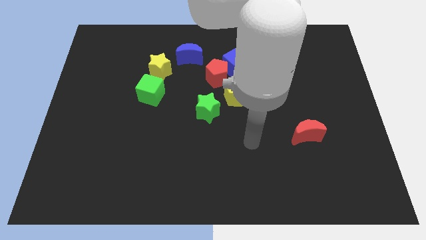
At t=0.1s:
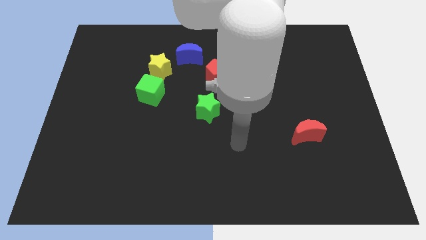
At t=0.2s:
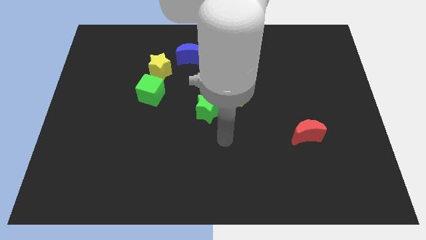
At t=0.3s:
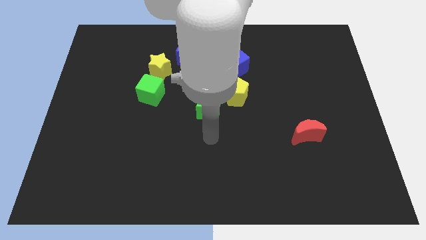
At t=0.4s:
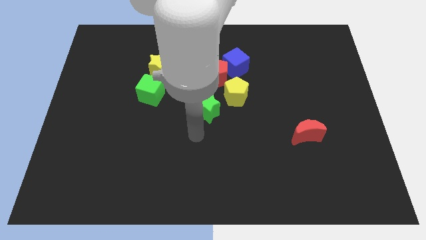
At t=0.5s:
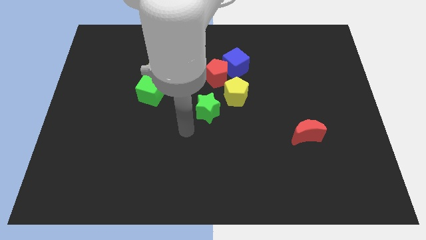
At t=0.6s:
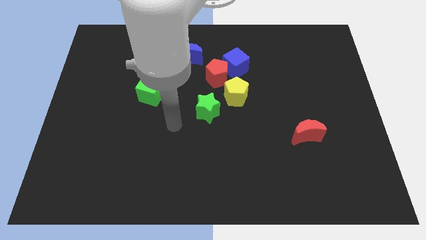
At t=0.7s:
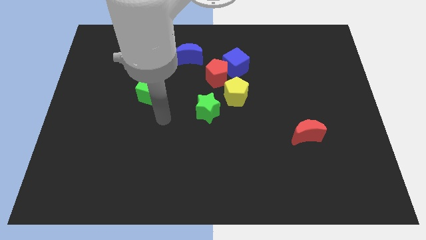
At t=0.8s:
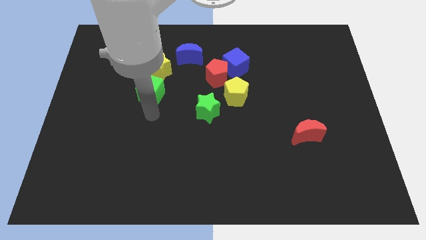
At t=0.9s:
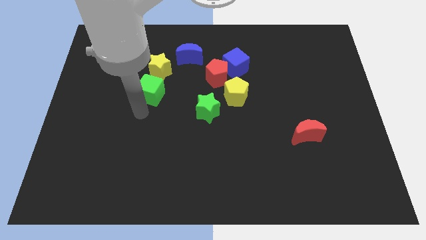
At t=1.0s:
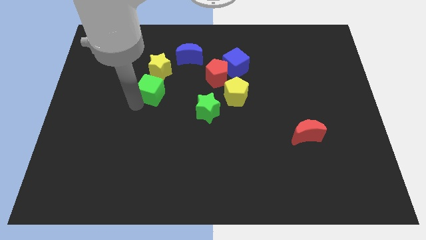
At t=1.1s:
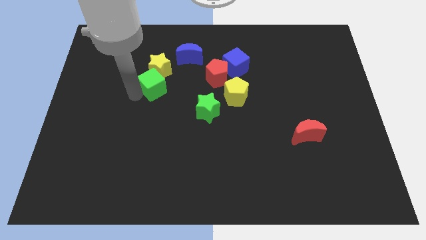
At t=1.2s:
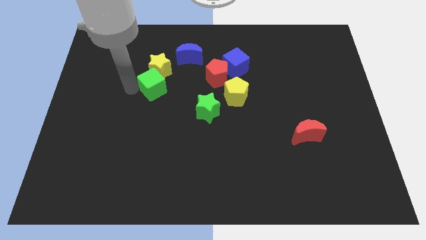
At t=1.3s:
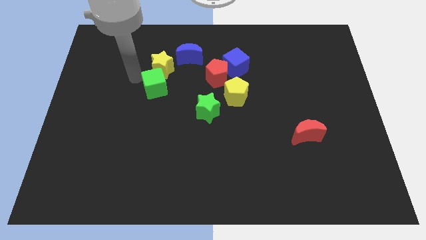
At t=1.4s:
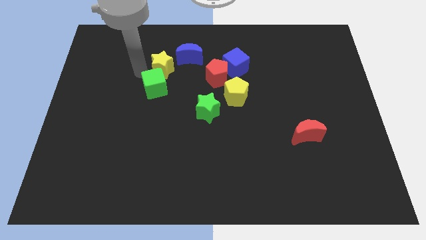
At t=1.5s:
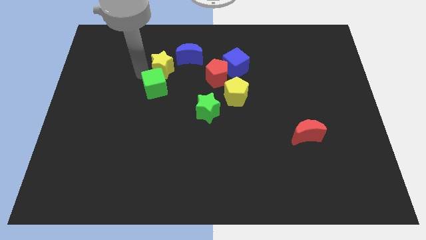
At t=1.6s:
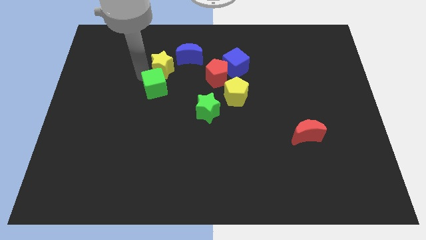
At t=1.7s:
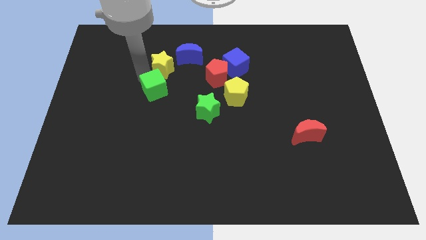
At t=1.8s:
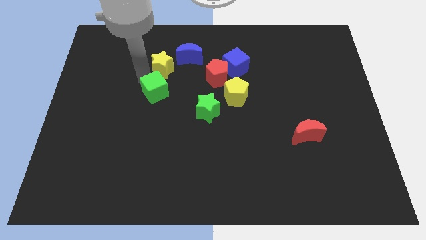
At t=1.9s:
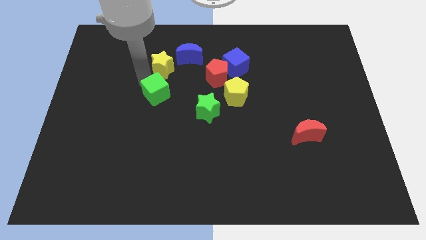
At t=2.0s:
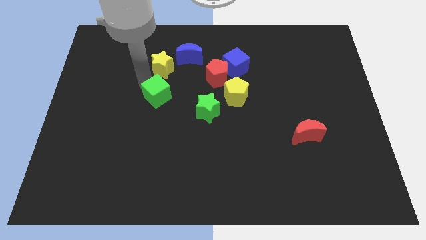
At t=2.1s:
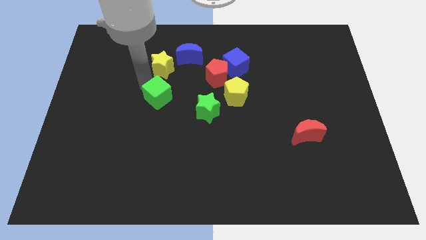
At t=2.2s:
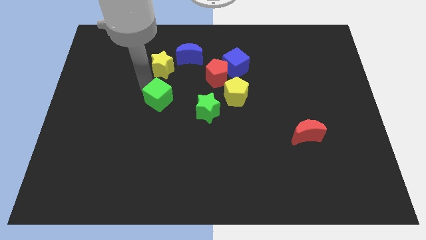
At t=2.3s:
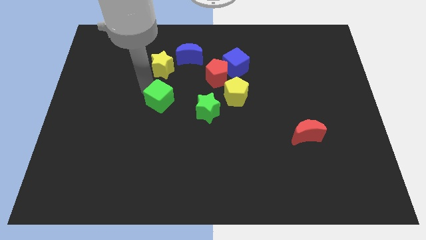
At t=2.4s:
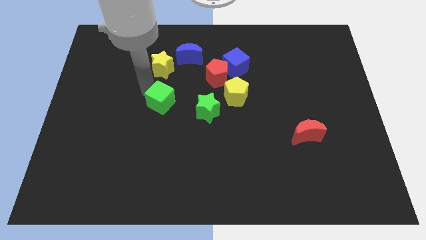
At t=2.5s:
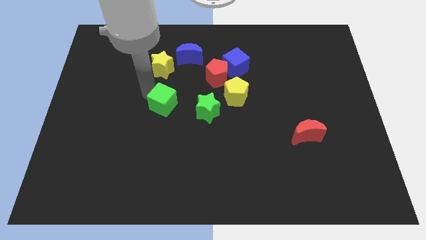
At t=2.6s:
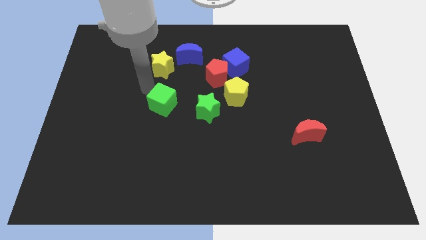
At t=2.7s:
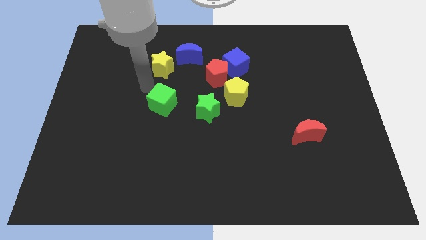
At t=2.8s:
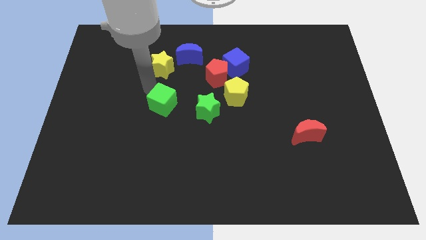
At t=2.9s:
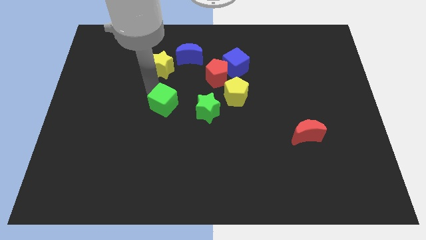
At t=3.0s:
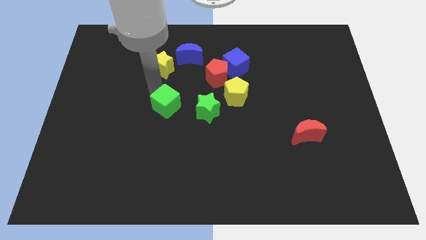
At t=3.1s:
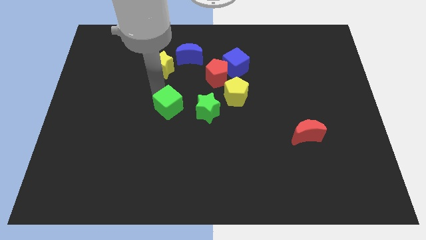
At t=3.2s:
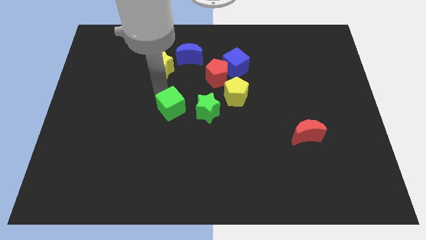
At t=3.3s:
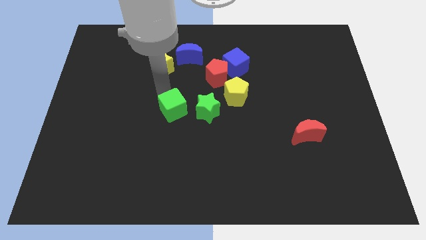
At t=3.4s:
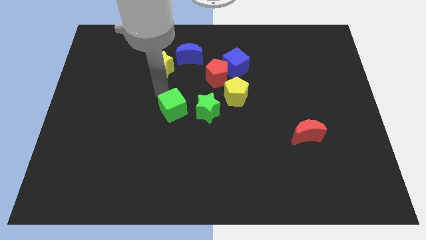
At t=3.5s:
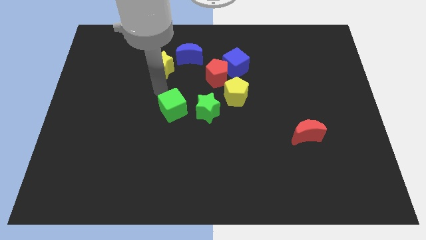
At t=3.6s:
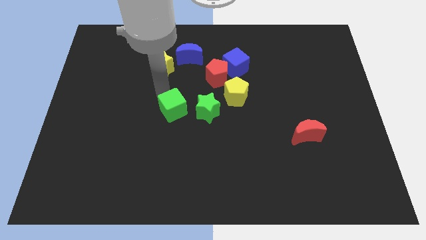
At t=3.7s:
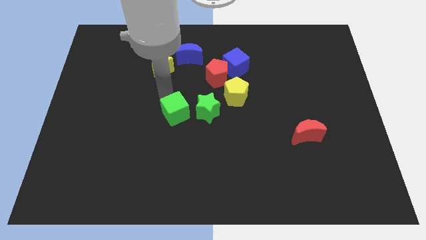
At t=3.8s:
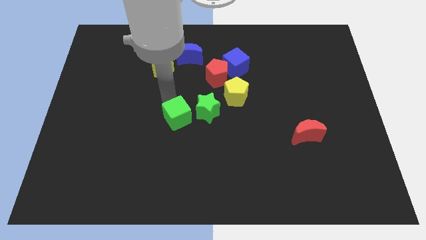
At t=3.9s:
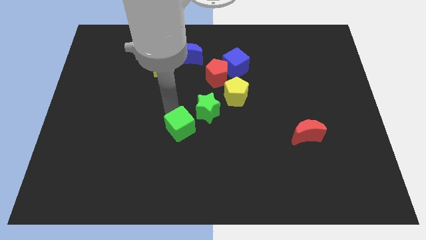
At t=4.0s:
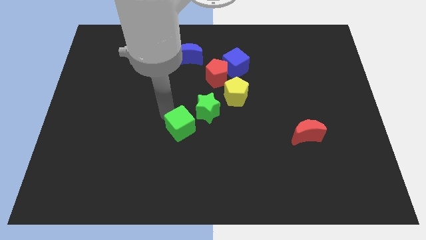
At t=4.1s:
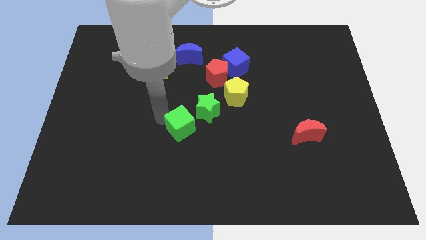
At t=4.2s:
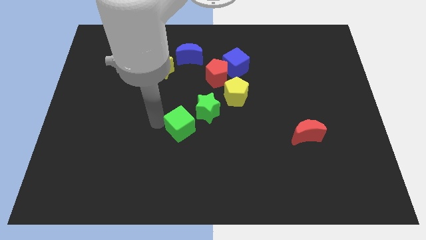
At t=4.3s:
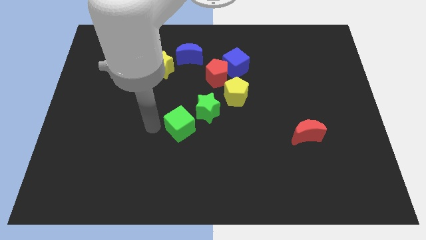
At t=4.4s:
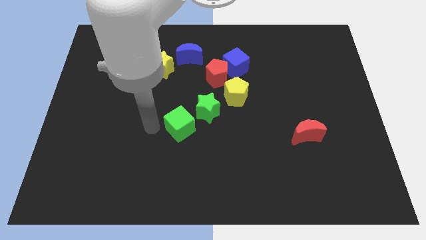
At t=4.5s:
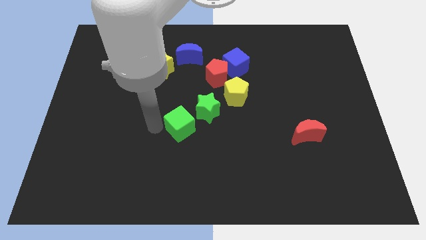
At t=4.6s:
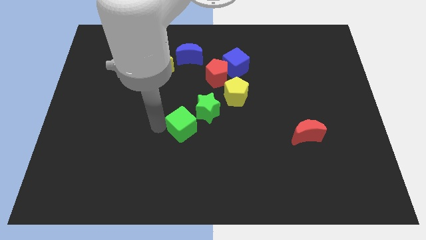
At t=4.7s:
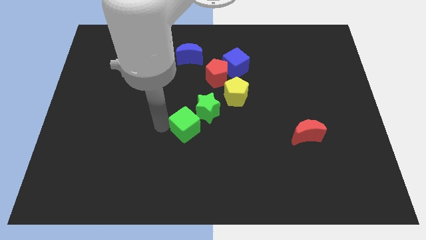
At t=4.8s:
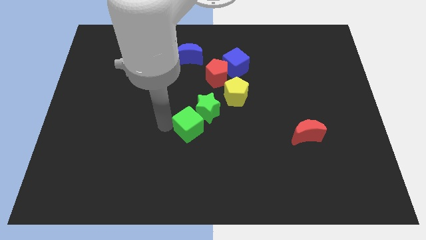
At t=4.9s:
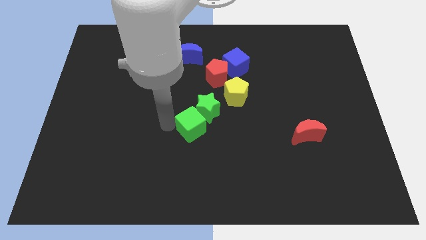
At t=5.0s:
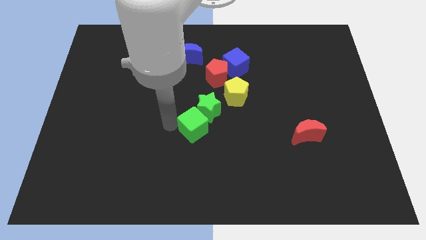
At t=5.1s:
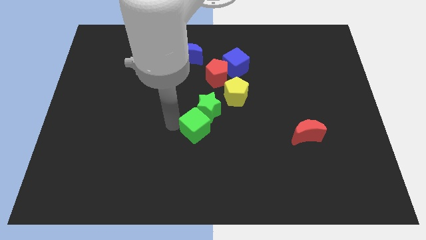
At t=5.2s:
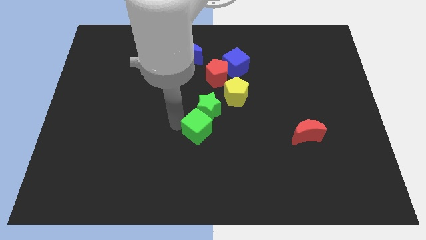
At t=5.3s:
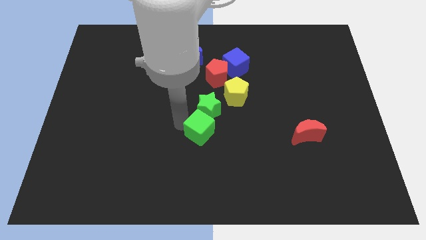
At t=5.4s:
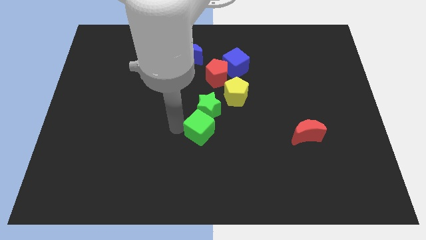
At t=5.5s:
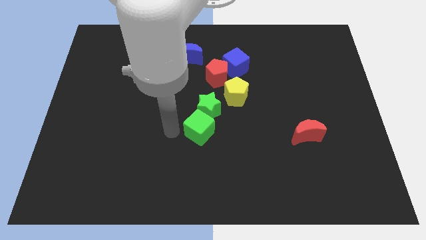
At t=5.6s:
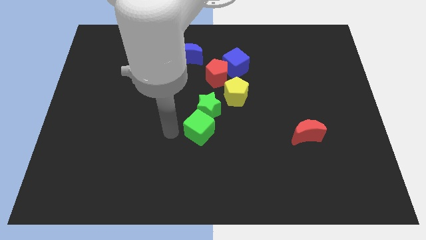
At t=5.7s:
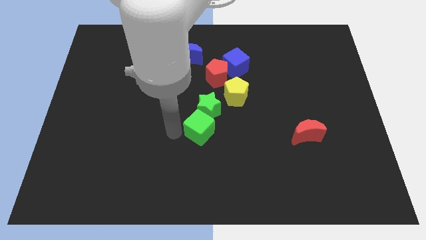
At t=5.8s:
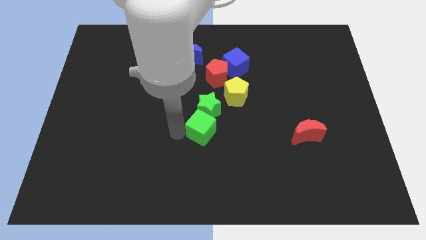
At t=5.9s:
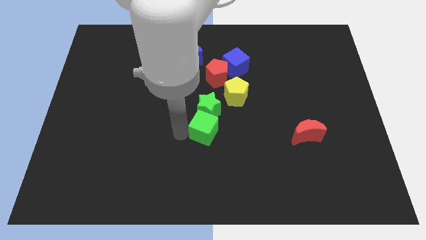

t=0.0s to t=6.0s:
push the green cube to the bottom right of the green star

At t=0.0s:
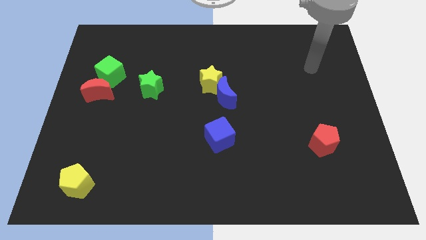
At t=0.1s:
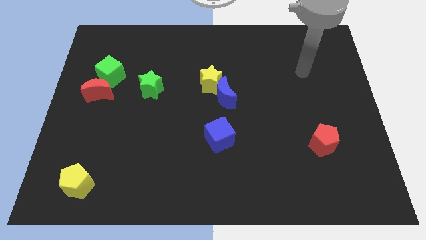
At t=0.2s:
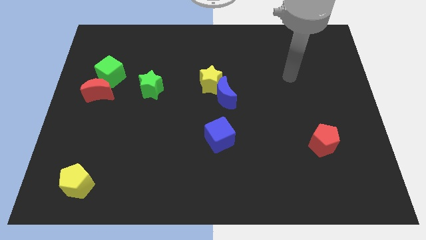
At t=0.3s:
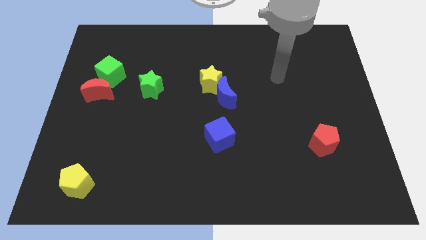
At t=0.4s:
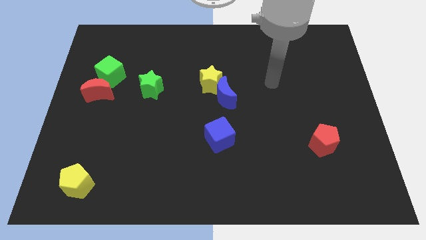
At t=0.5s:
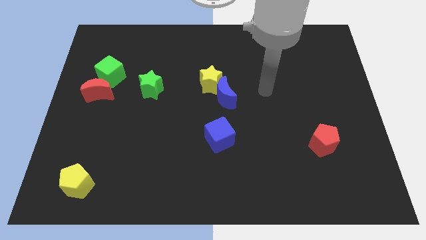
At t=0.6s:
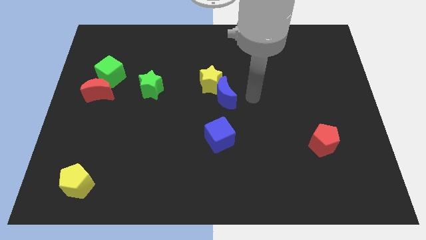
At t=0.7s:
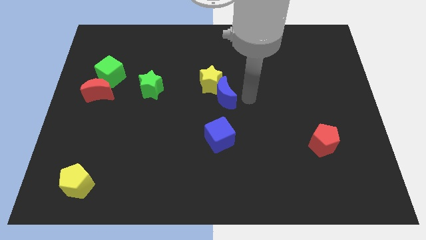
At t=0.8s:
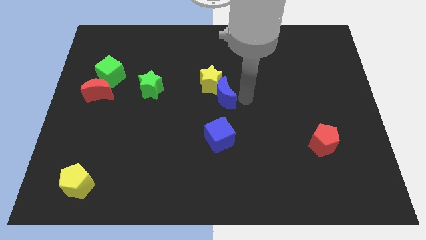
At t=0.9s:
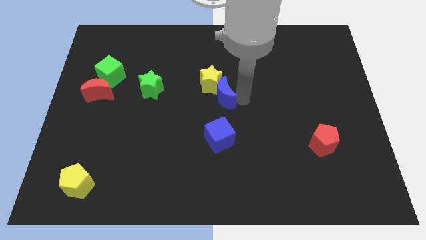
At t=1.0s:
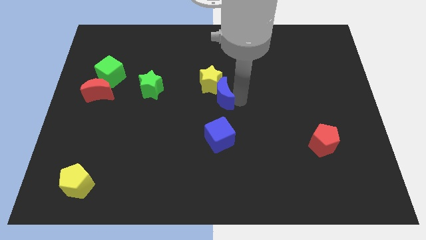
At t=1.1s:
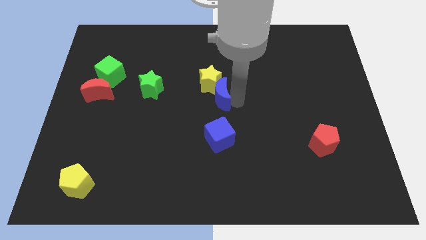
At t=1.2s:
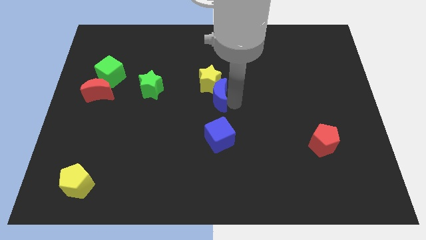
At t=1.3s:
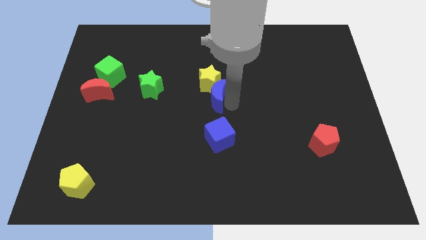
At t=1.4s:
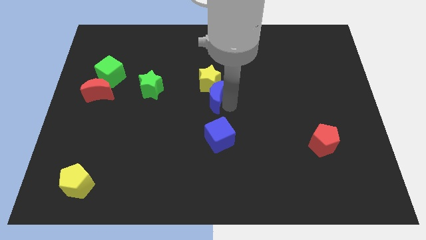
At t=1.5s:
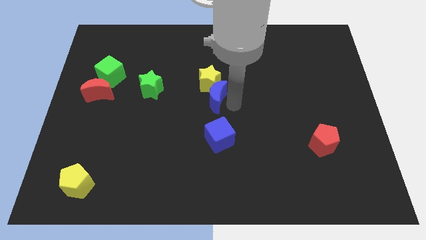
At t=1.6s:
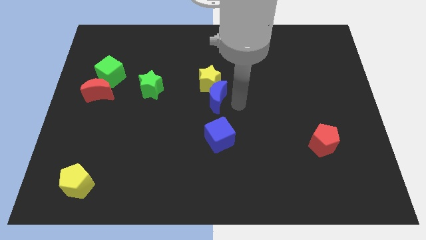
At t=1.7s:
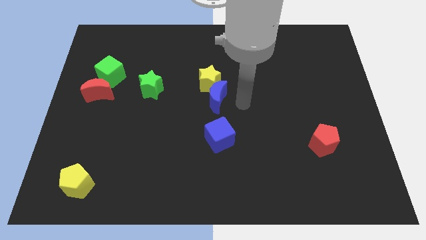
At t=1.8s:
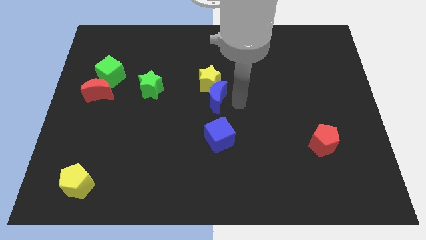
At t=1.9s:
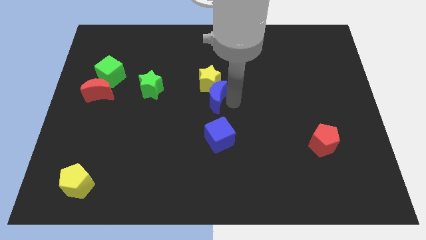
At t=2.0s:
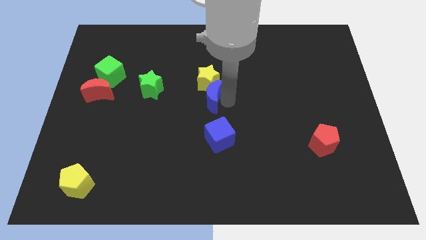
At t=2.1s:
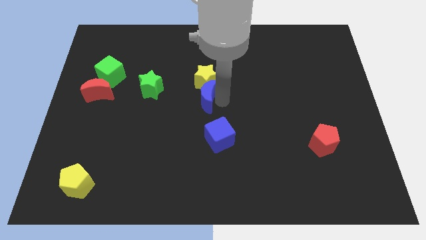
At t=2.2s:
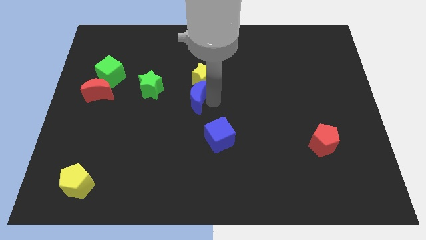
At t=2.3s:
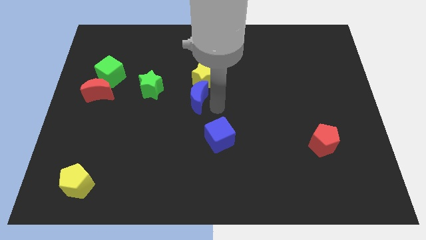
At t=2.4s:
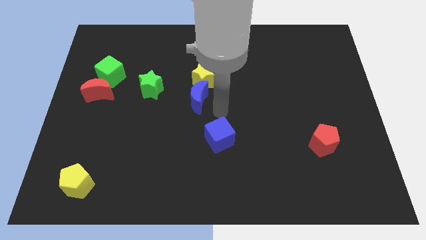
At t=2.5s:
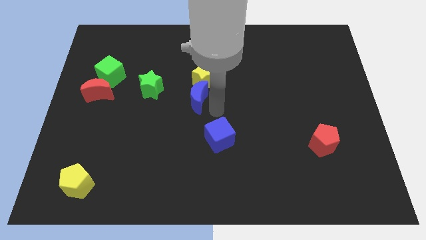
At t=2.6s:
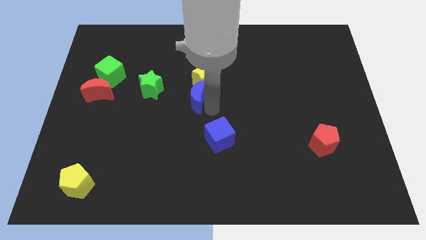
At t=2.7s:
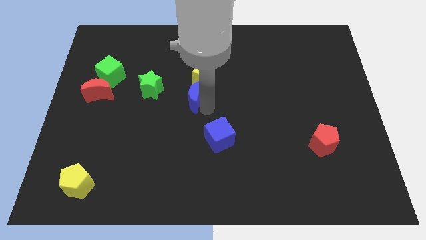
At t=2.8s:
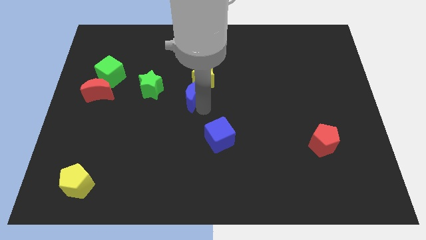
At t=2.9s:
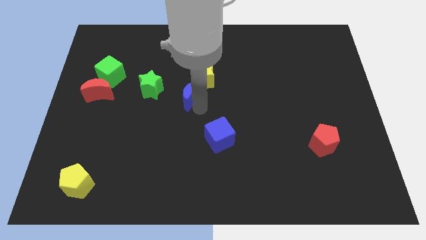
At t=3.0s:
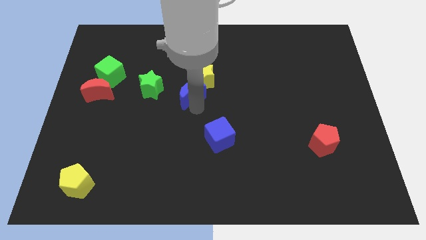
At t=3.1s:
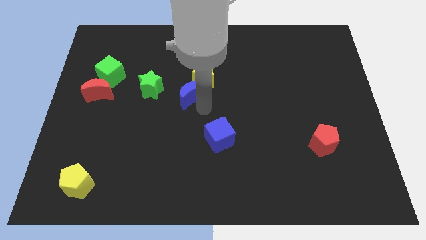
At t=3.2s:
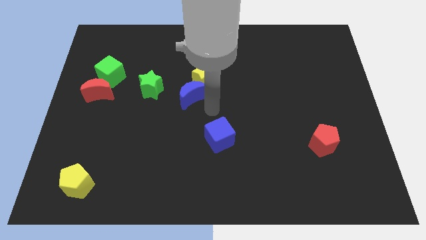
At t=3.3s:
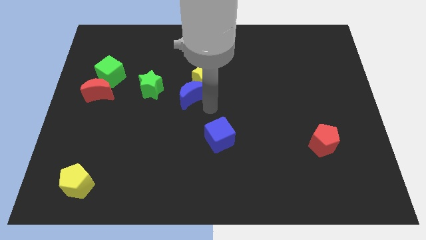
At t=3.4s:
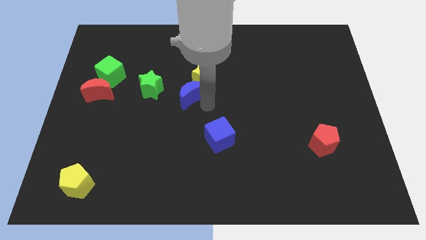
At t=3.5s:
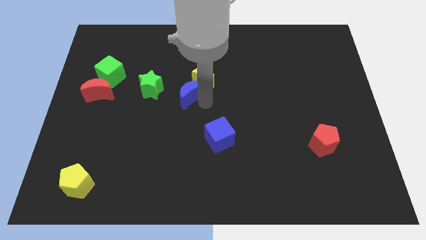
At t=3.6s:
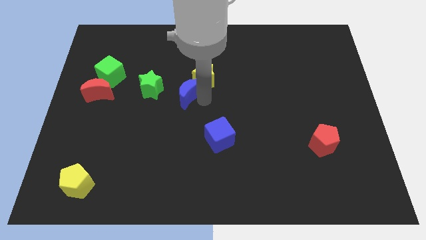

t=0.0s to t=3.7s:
put the blue moon just left of the yellow star
